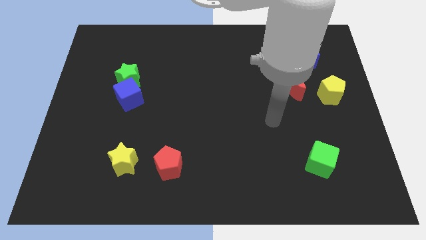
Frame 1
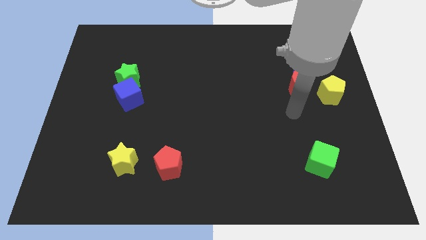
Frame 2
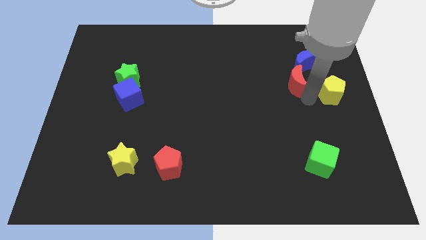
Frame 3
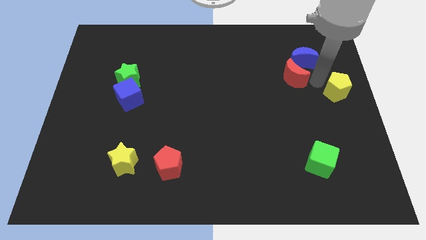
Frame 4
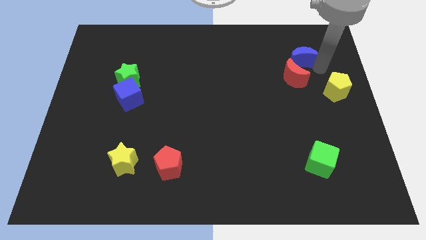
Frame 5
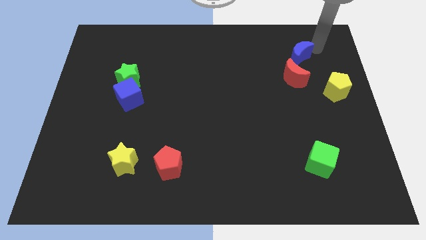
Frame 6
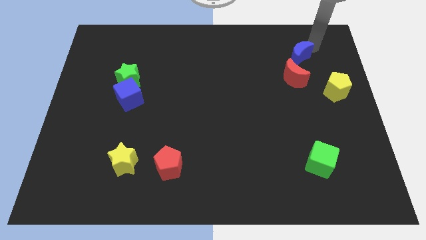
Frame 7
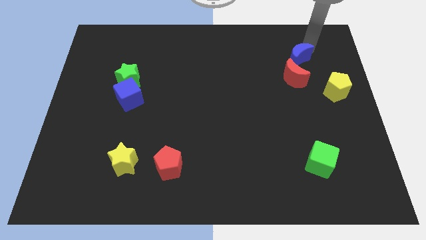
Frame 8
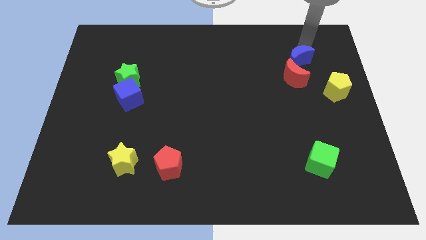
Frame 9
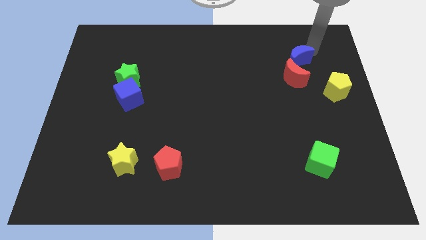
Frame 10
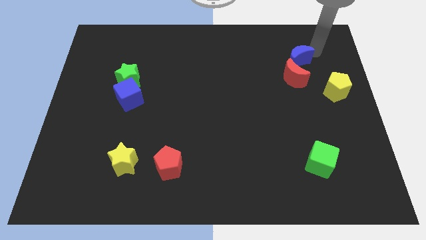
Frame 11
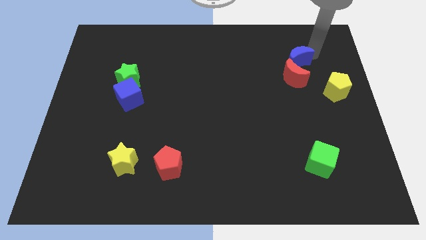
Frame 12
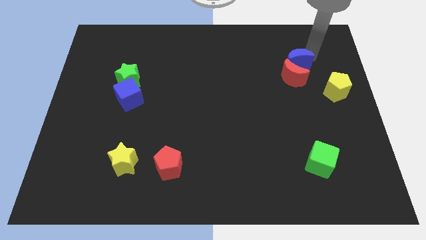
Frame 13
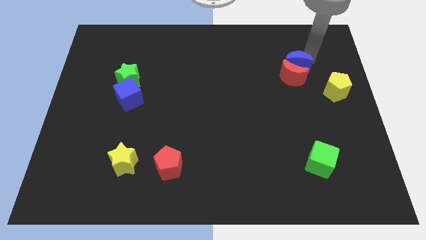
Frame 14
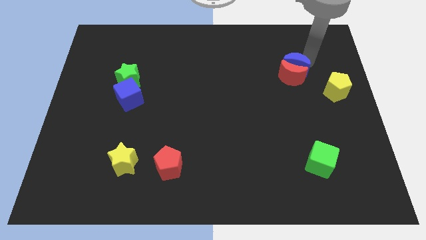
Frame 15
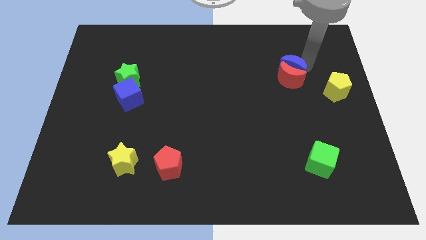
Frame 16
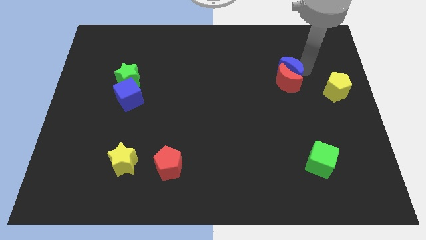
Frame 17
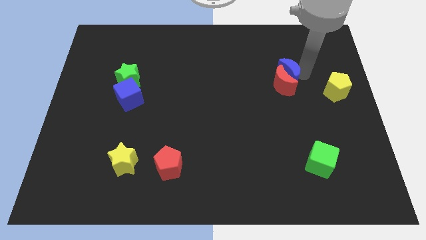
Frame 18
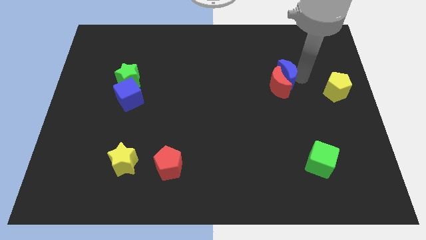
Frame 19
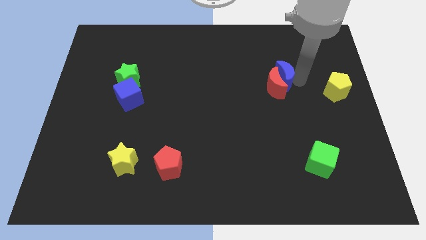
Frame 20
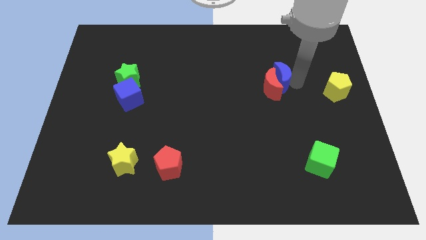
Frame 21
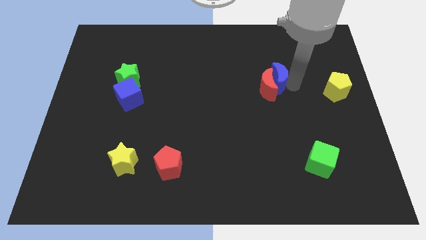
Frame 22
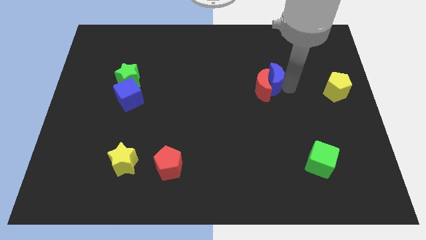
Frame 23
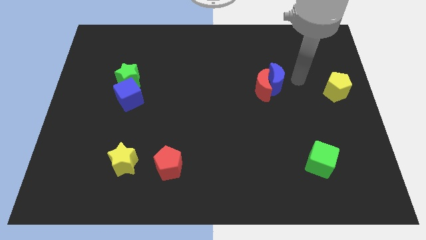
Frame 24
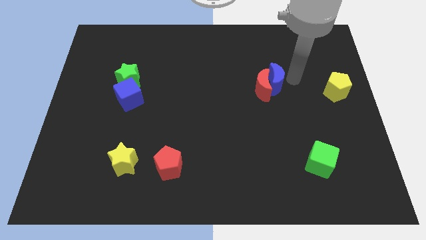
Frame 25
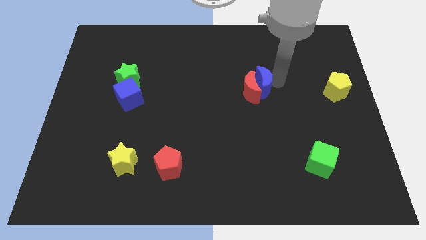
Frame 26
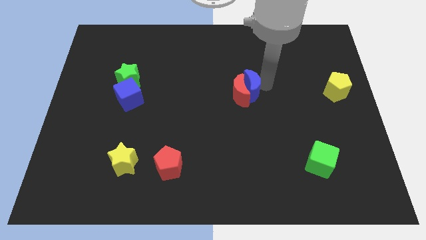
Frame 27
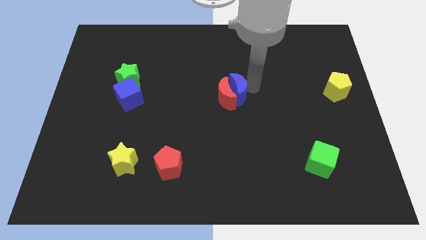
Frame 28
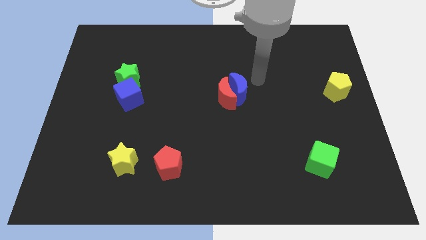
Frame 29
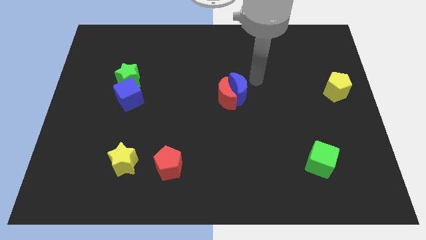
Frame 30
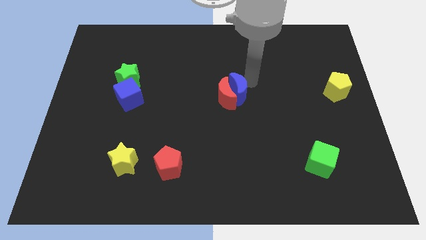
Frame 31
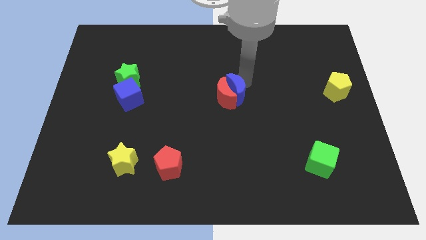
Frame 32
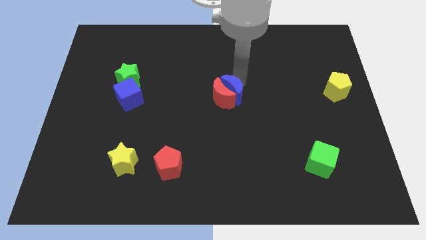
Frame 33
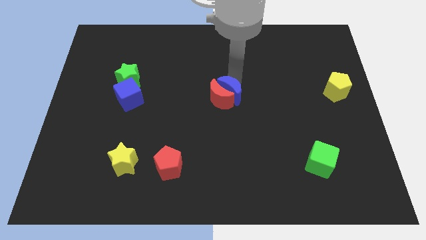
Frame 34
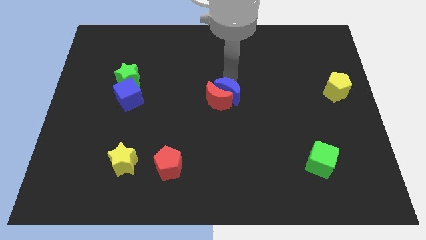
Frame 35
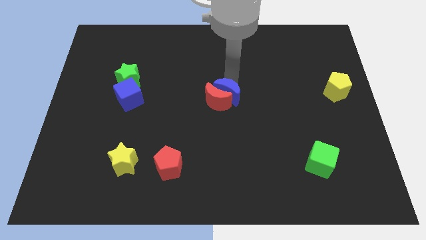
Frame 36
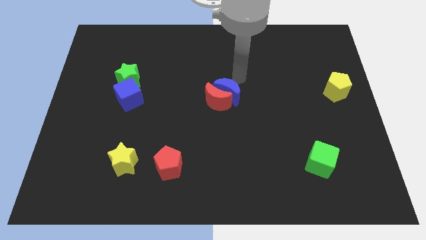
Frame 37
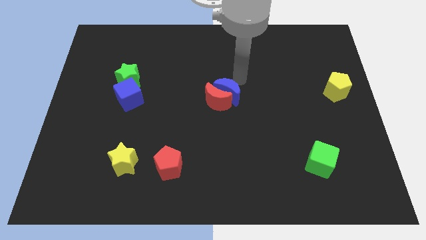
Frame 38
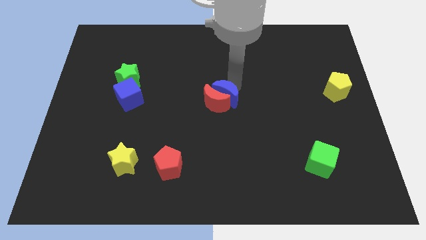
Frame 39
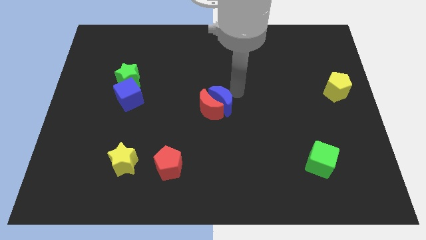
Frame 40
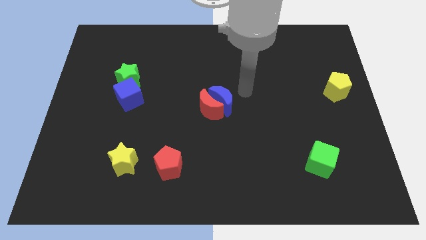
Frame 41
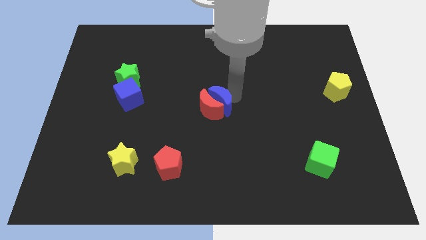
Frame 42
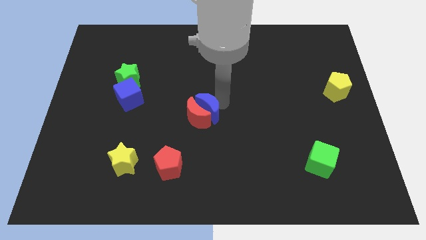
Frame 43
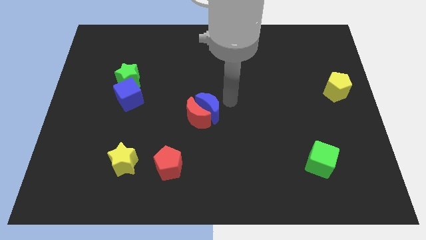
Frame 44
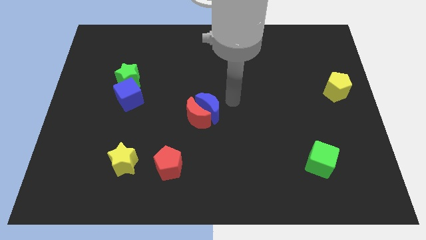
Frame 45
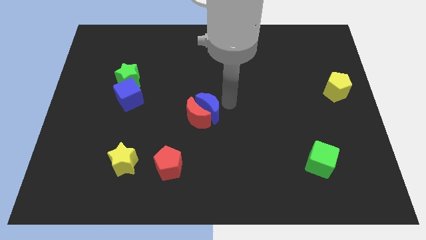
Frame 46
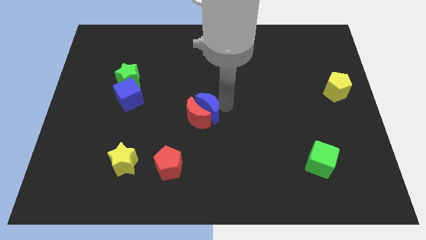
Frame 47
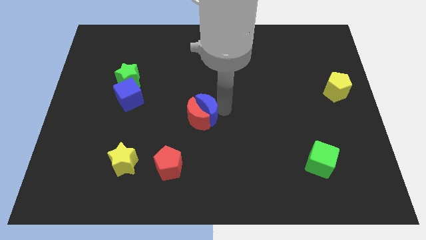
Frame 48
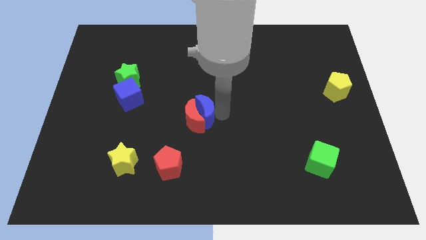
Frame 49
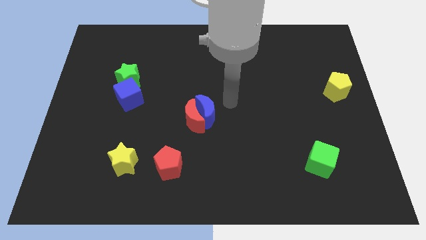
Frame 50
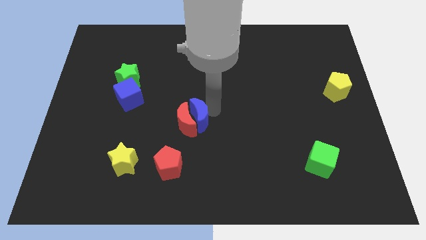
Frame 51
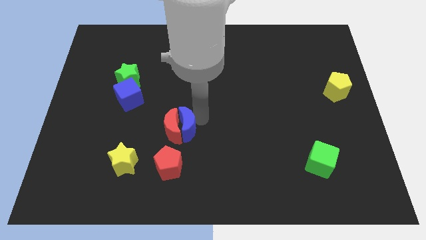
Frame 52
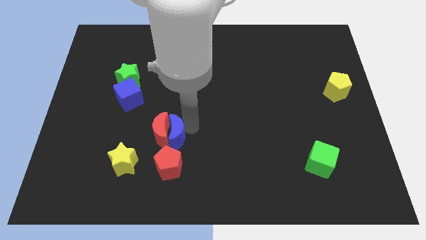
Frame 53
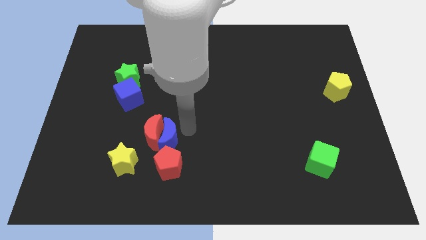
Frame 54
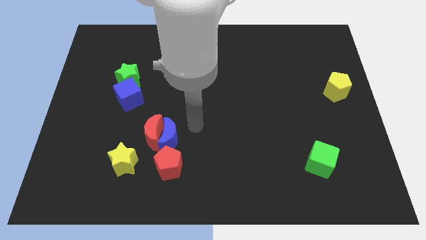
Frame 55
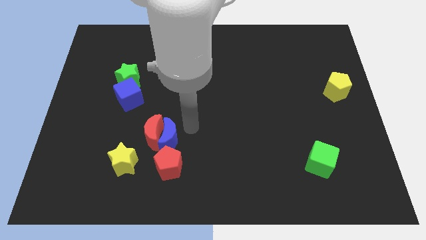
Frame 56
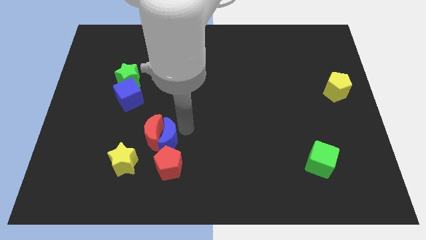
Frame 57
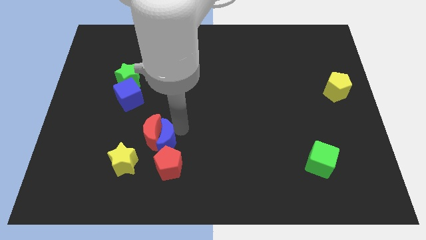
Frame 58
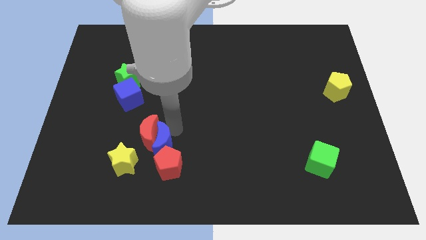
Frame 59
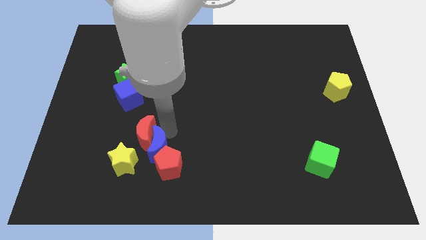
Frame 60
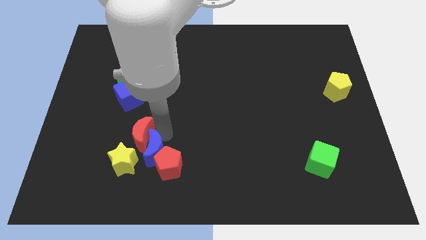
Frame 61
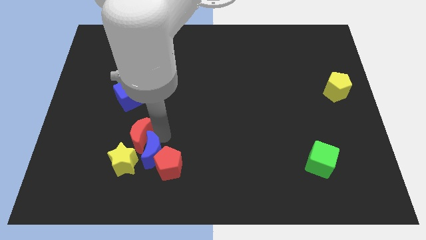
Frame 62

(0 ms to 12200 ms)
slide the blue moon next to the yellow star

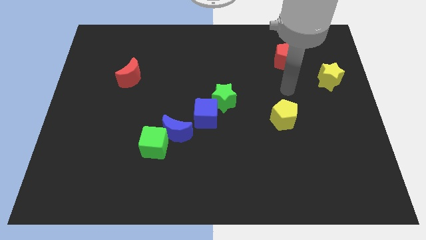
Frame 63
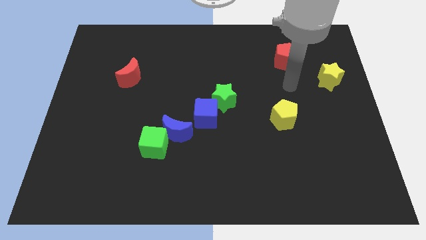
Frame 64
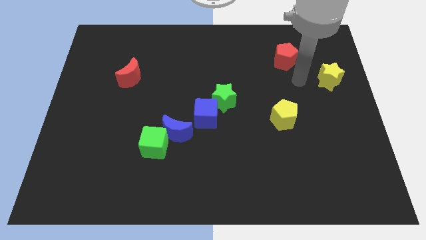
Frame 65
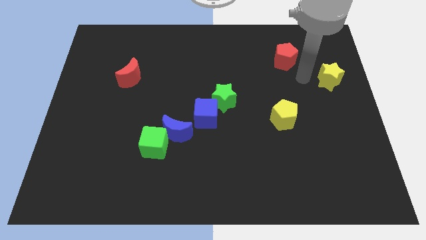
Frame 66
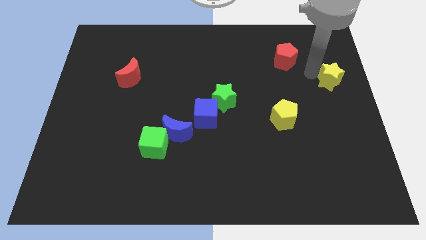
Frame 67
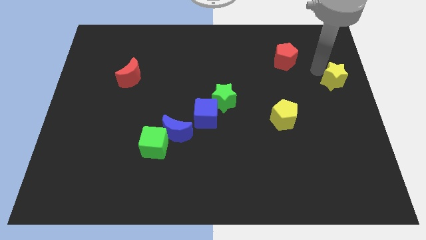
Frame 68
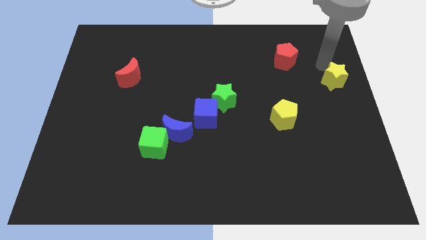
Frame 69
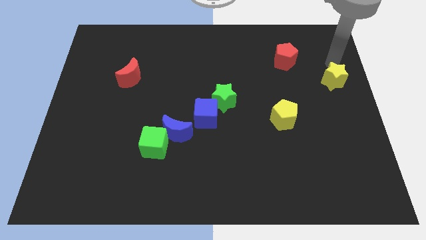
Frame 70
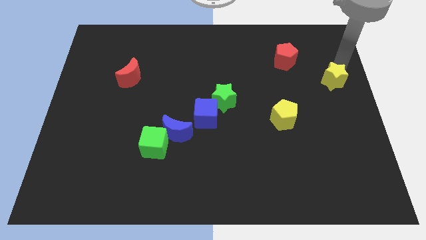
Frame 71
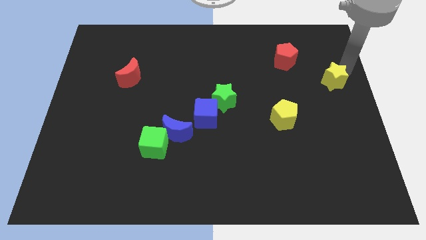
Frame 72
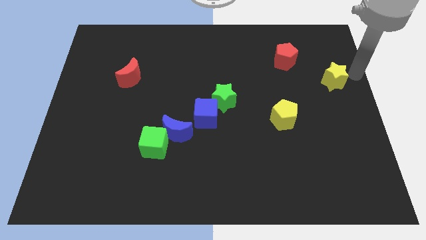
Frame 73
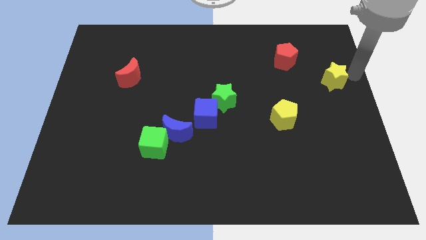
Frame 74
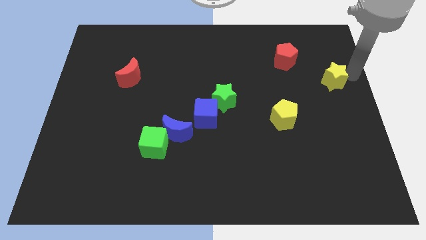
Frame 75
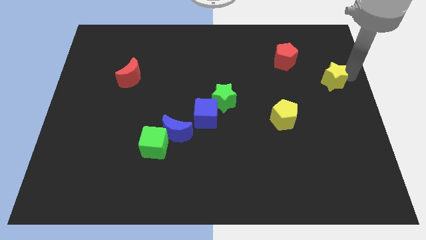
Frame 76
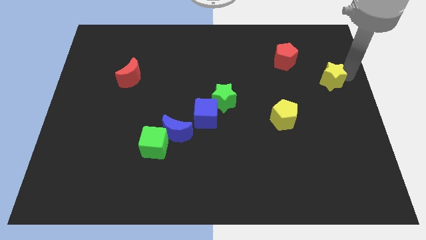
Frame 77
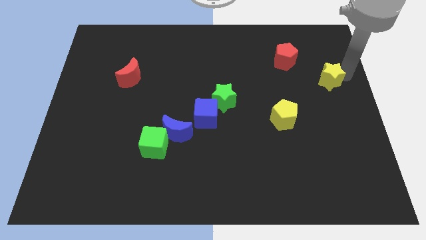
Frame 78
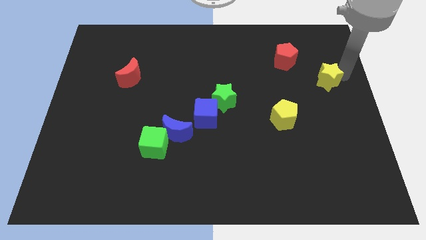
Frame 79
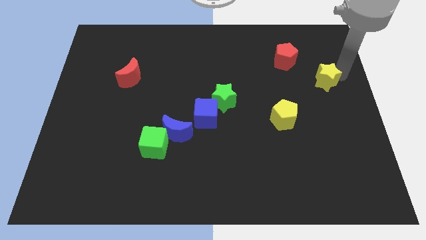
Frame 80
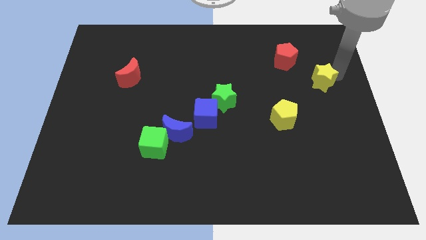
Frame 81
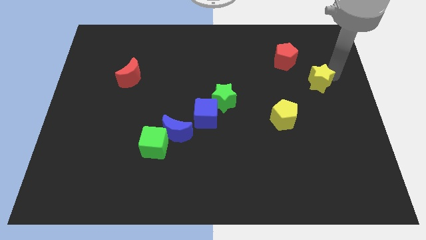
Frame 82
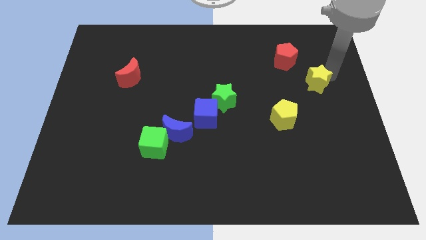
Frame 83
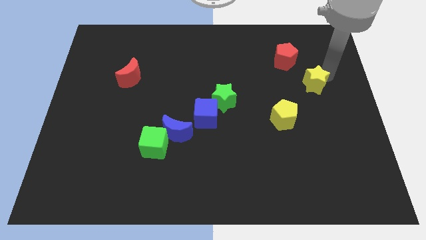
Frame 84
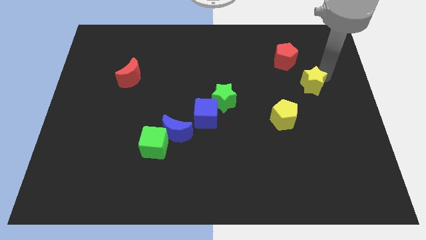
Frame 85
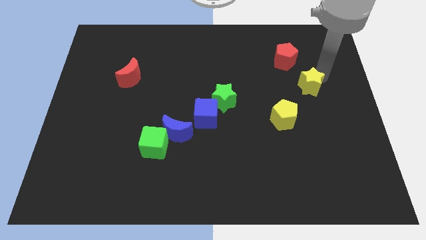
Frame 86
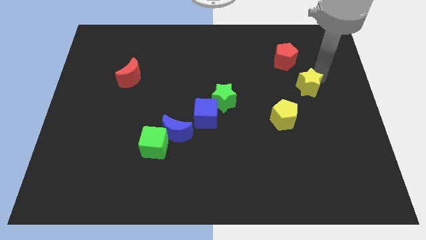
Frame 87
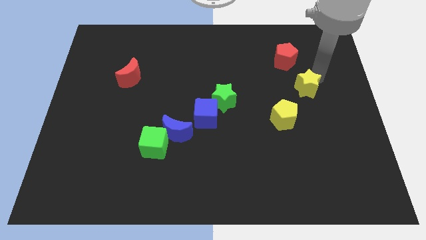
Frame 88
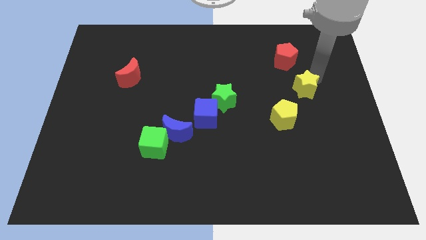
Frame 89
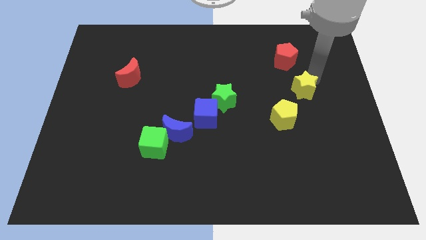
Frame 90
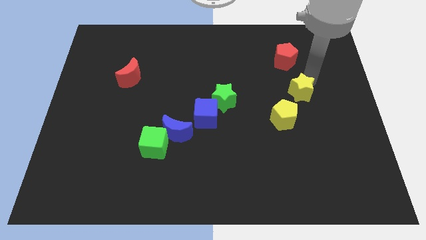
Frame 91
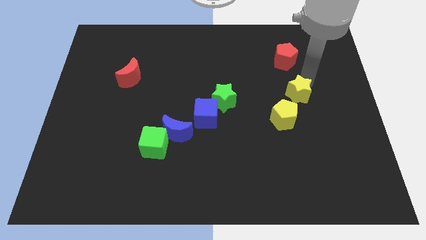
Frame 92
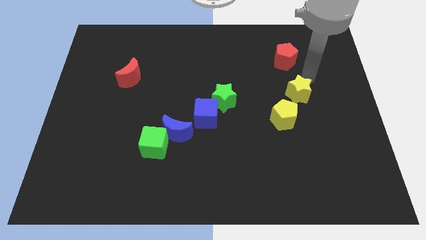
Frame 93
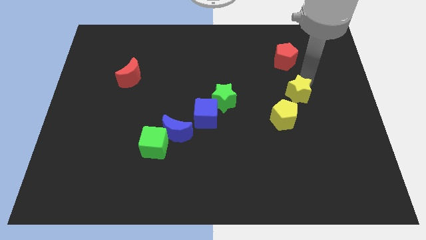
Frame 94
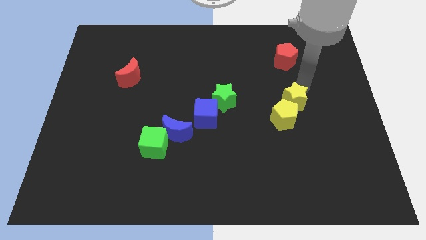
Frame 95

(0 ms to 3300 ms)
put the yellow star close to the yellow pentagon
